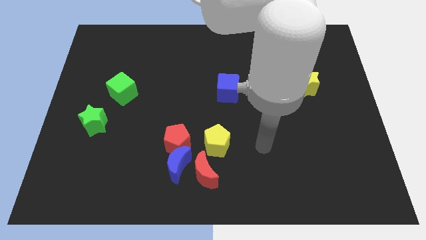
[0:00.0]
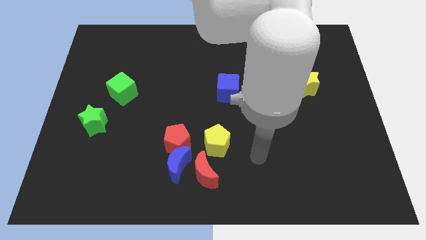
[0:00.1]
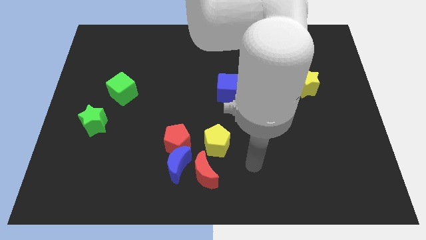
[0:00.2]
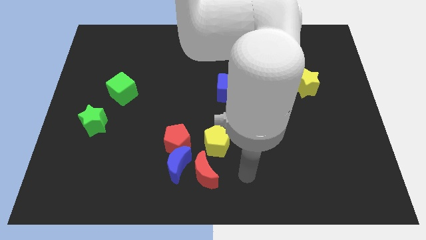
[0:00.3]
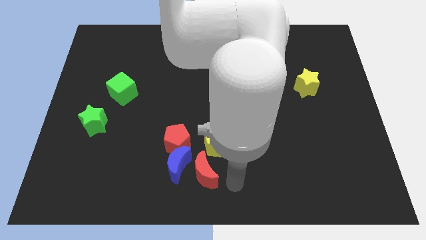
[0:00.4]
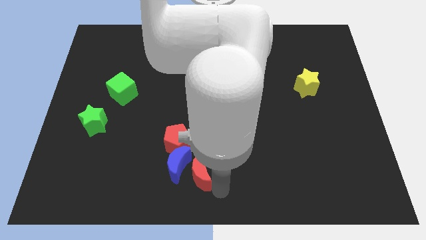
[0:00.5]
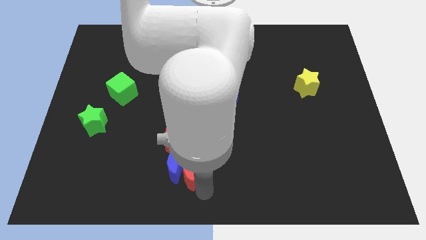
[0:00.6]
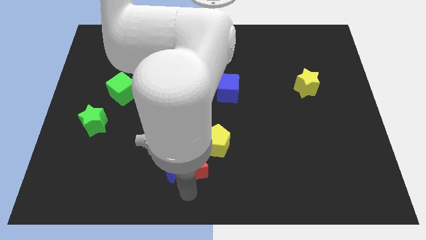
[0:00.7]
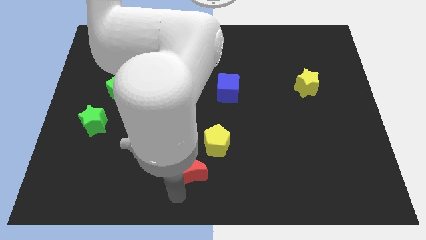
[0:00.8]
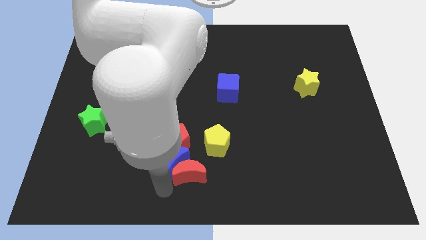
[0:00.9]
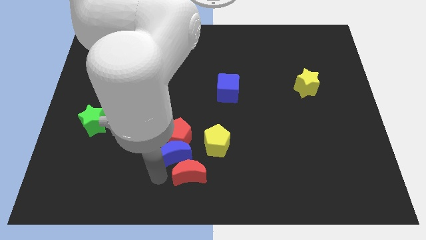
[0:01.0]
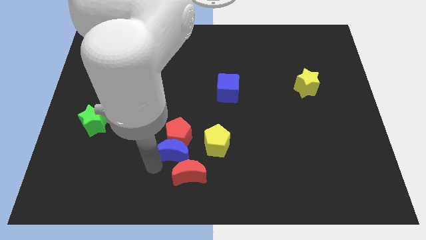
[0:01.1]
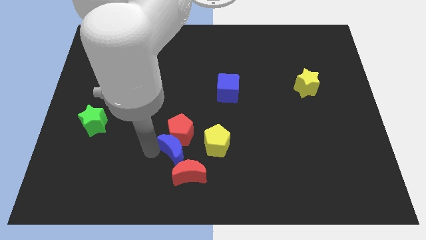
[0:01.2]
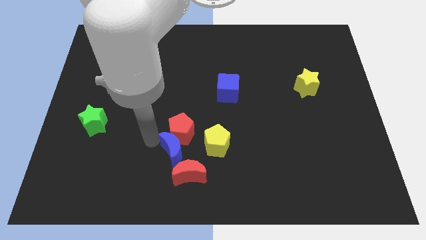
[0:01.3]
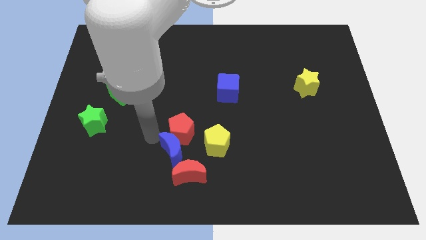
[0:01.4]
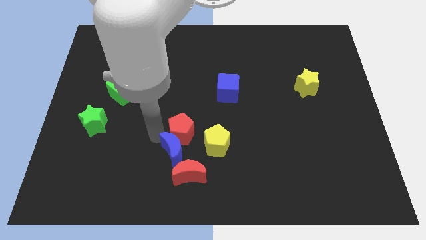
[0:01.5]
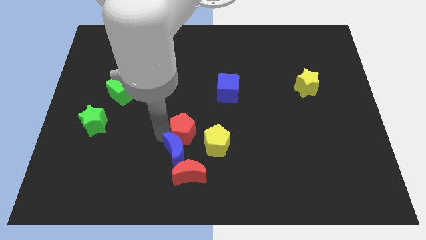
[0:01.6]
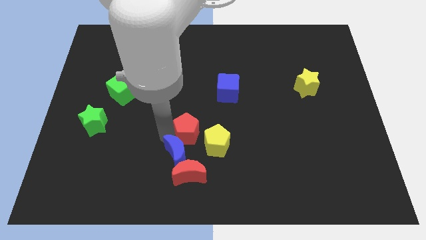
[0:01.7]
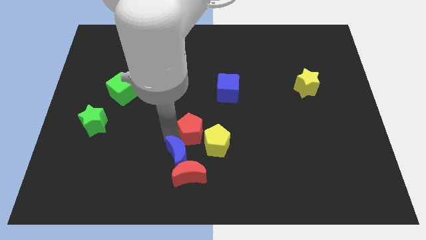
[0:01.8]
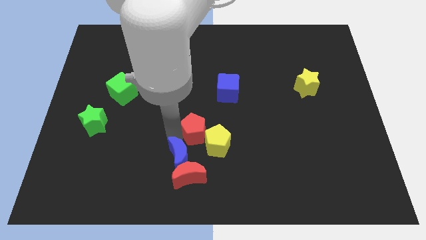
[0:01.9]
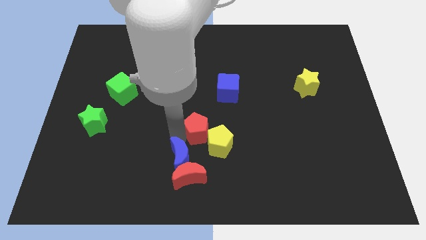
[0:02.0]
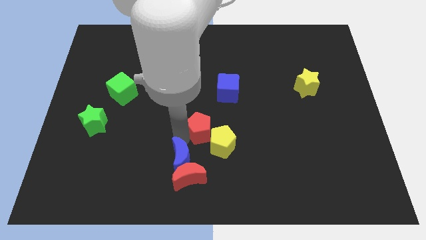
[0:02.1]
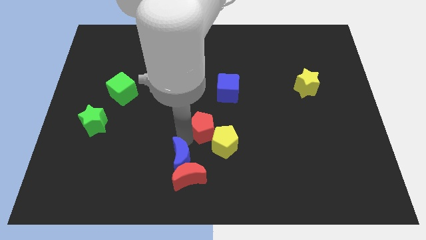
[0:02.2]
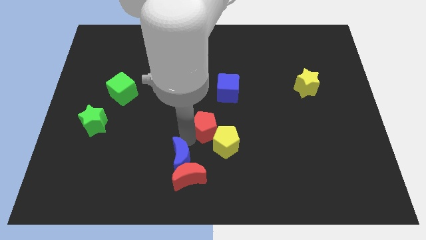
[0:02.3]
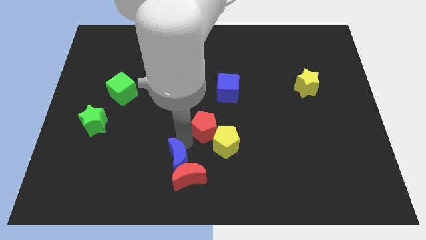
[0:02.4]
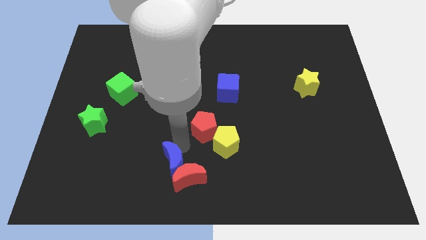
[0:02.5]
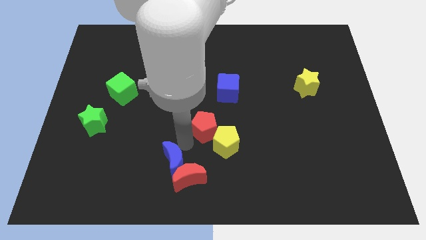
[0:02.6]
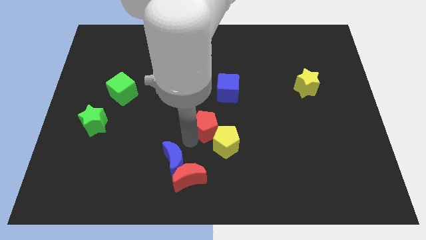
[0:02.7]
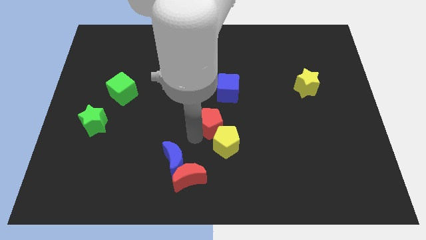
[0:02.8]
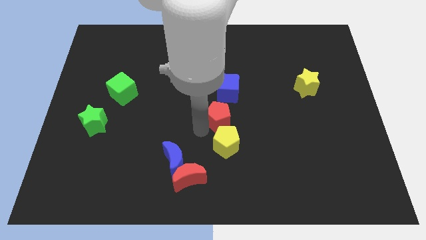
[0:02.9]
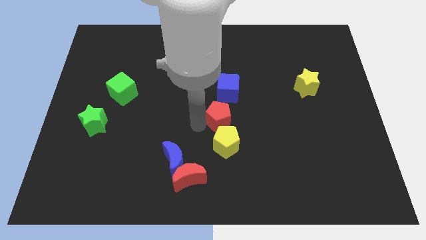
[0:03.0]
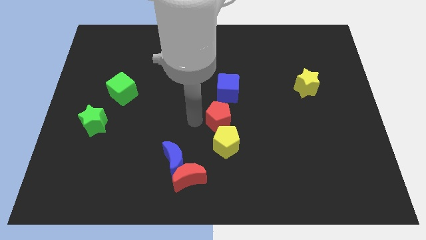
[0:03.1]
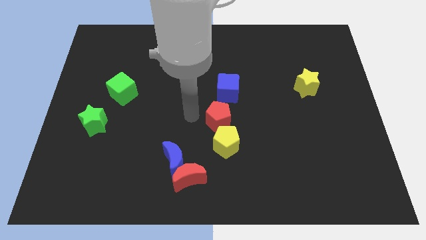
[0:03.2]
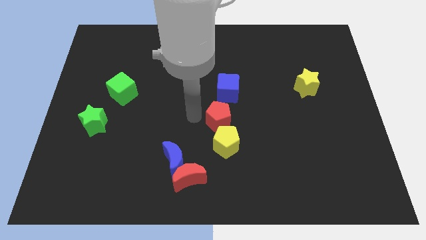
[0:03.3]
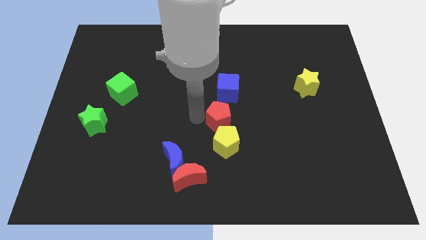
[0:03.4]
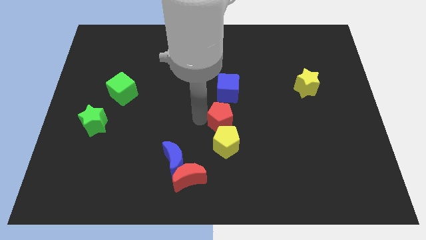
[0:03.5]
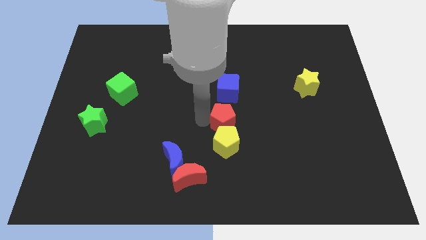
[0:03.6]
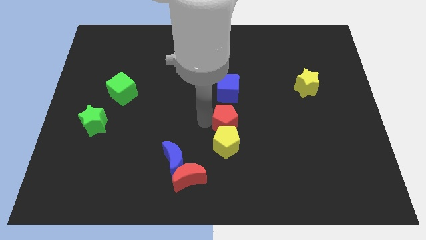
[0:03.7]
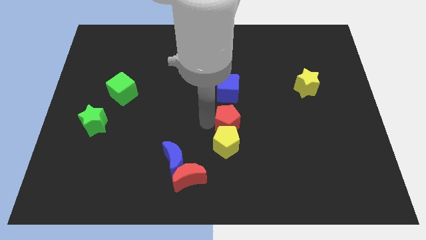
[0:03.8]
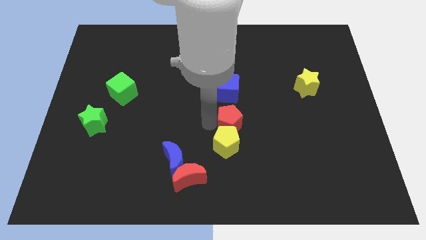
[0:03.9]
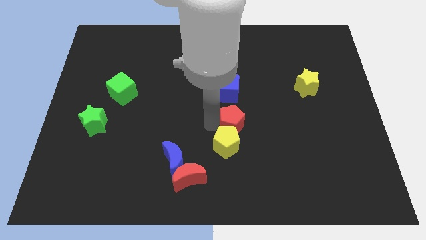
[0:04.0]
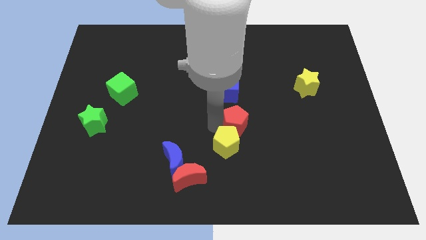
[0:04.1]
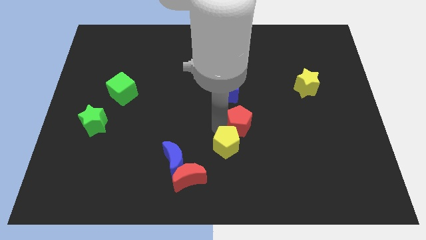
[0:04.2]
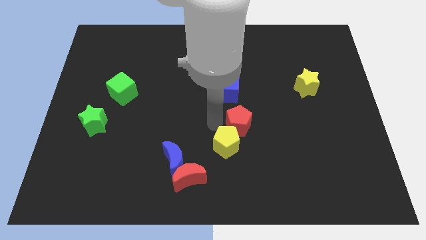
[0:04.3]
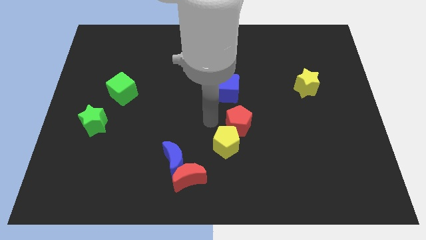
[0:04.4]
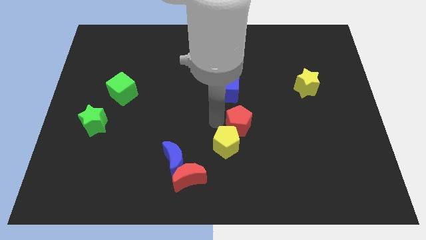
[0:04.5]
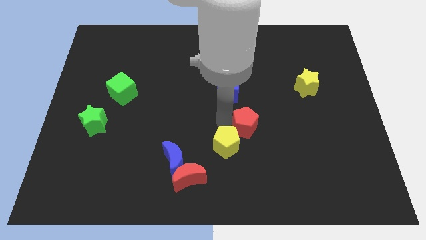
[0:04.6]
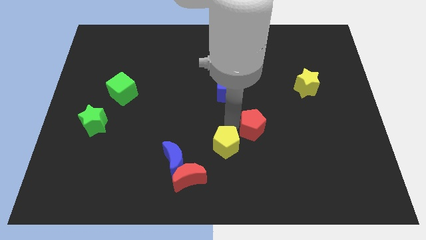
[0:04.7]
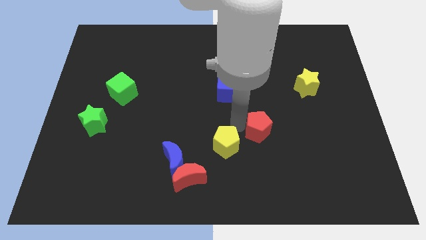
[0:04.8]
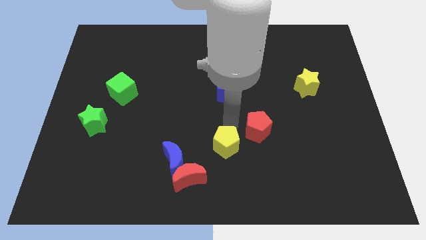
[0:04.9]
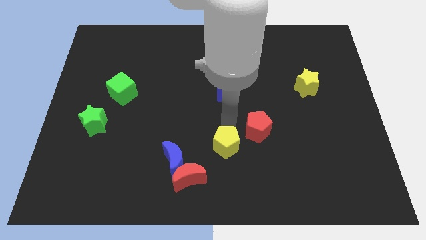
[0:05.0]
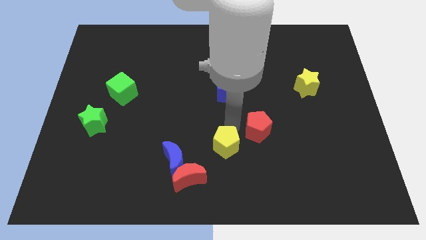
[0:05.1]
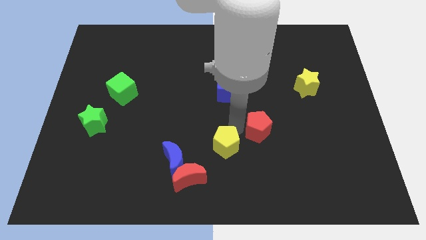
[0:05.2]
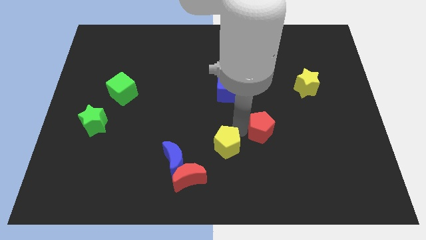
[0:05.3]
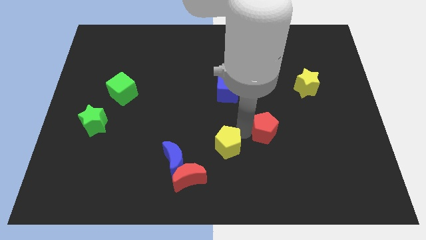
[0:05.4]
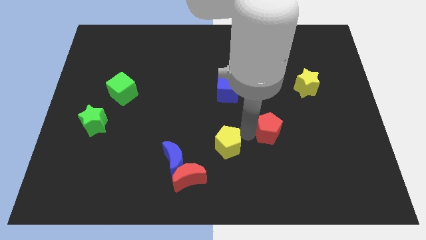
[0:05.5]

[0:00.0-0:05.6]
push the red pentagon right

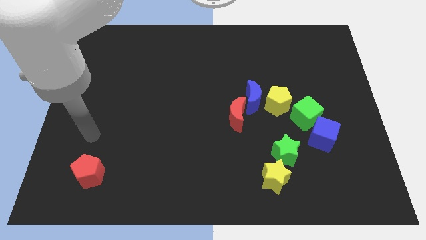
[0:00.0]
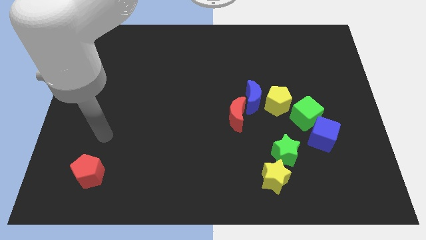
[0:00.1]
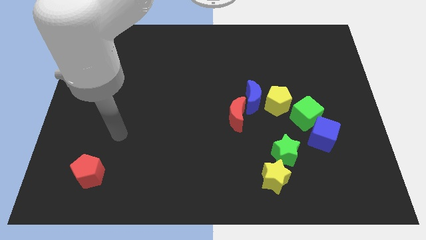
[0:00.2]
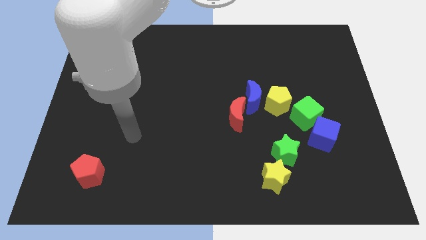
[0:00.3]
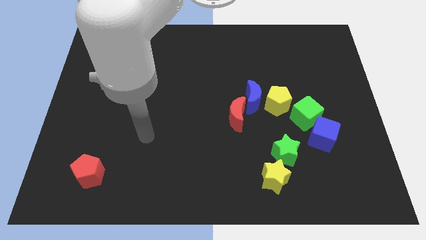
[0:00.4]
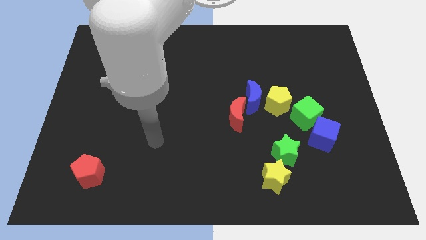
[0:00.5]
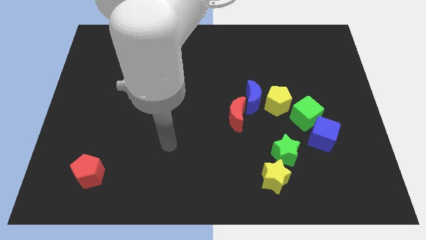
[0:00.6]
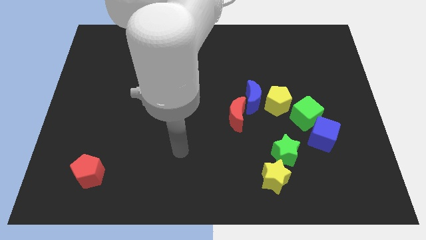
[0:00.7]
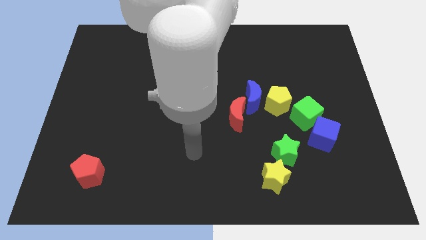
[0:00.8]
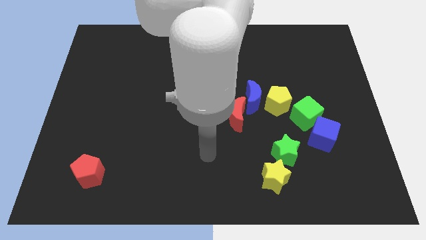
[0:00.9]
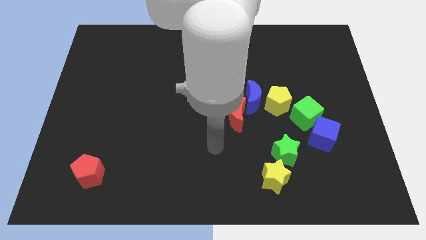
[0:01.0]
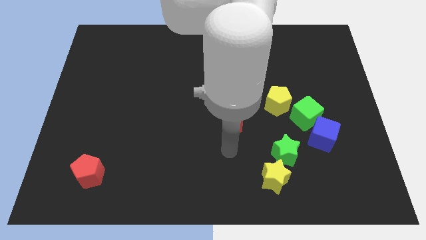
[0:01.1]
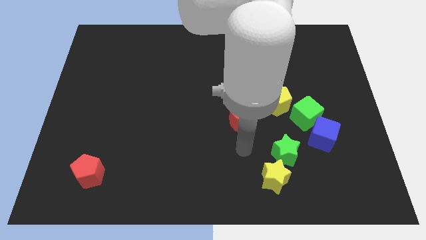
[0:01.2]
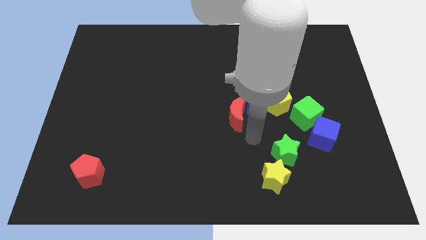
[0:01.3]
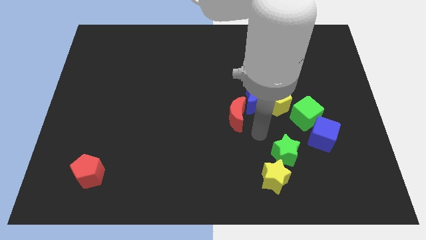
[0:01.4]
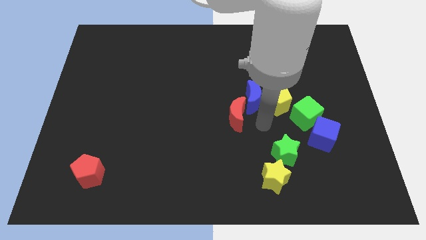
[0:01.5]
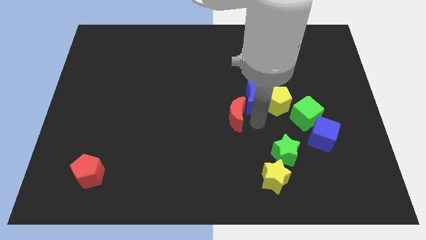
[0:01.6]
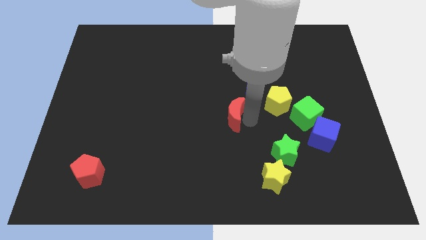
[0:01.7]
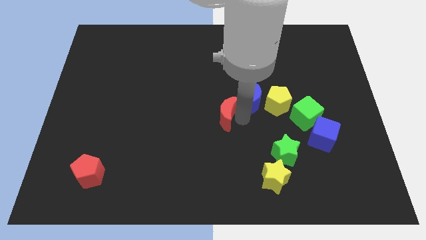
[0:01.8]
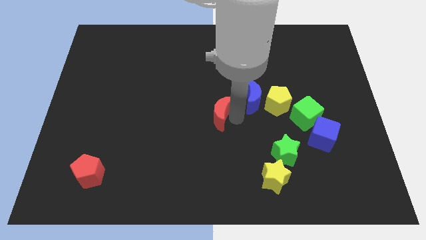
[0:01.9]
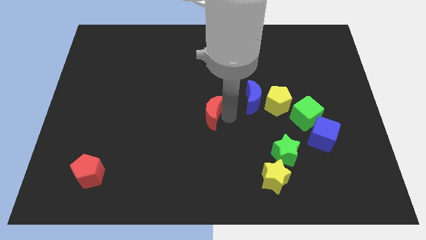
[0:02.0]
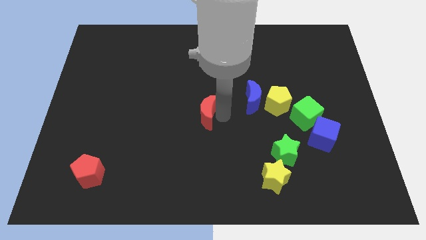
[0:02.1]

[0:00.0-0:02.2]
push the red moon left a little

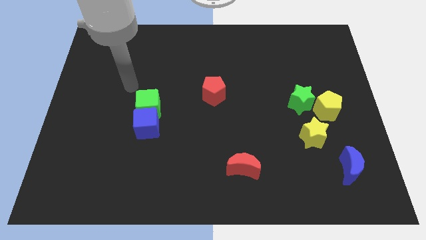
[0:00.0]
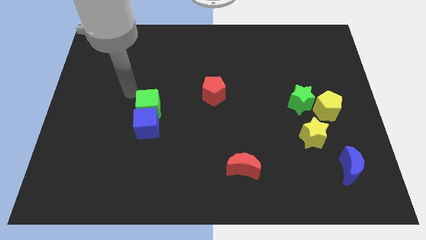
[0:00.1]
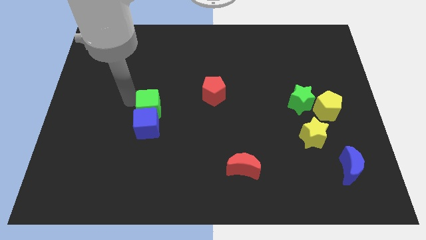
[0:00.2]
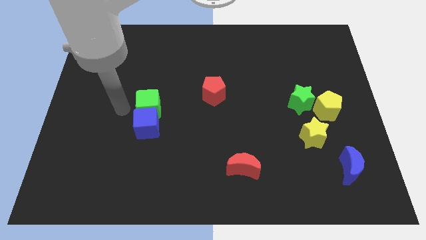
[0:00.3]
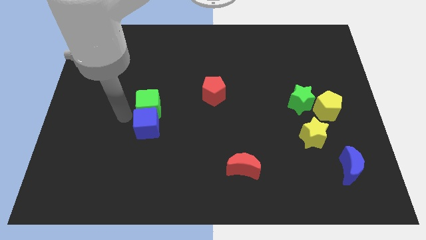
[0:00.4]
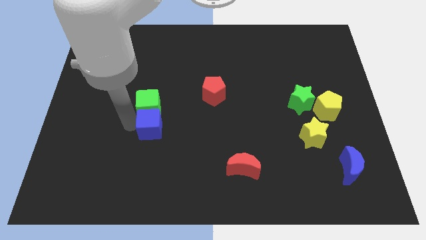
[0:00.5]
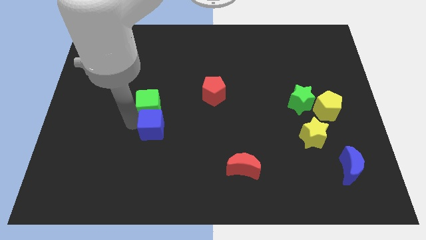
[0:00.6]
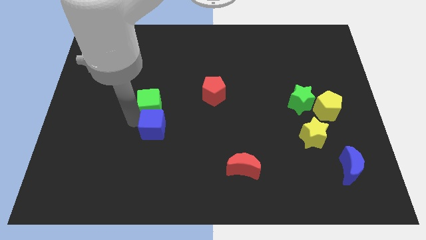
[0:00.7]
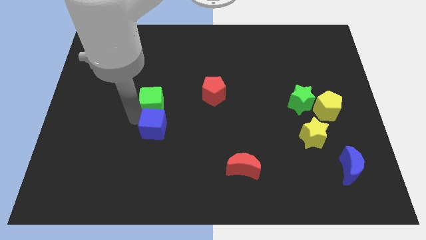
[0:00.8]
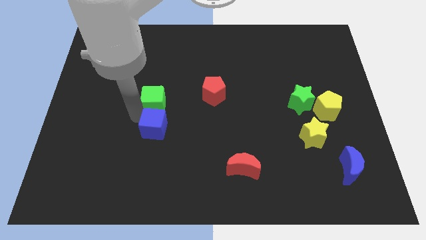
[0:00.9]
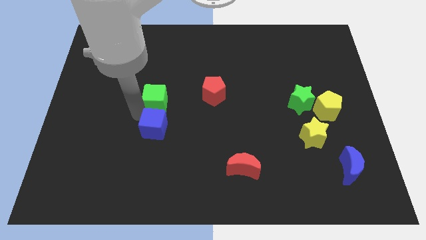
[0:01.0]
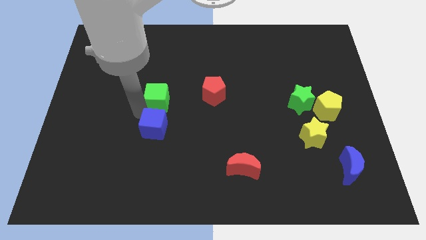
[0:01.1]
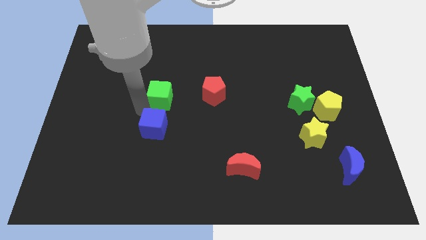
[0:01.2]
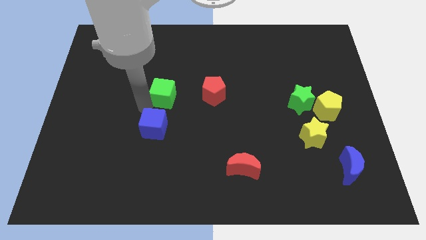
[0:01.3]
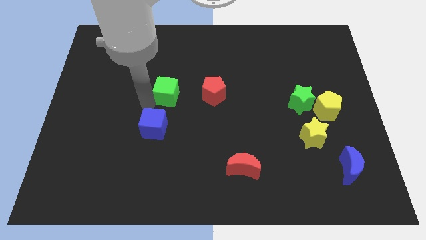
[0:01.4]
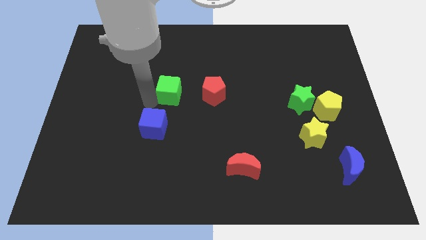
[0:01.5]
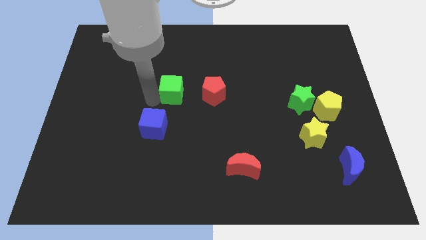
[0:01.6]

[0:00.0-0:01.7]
move the green cube a little bit diagonally up and to the right
